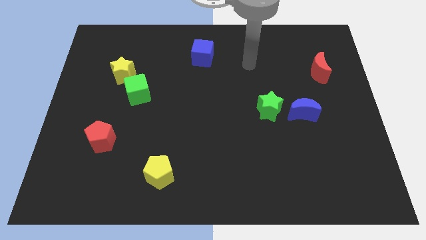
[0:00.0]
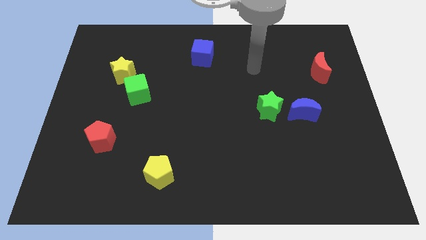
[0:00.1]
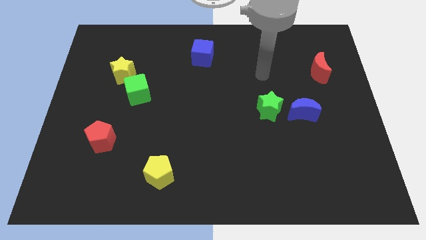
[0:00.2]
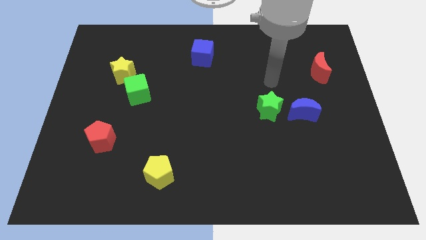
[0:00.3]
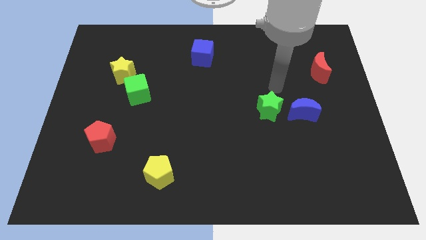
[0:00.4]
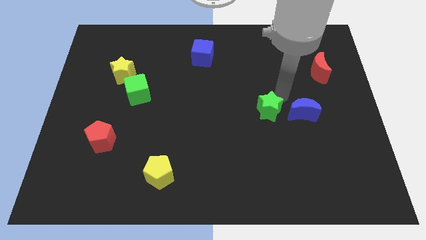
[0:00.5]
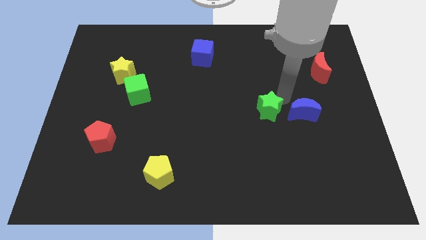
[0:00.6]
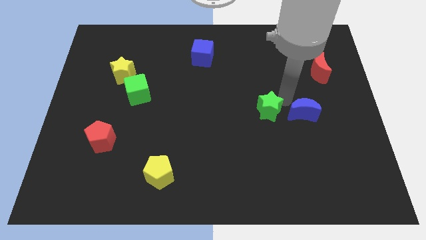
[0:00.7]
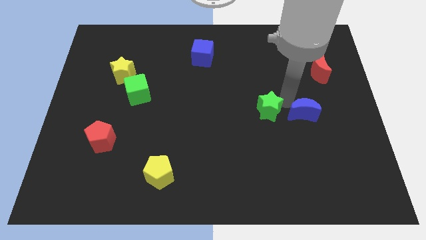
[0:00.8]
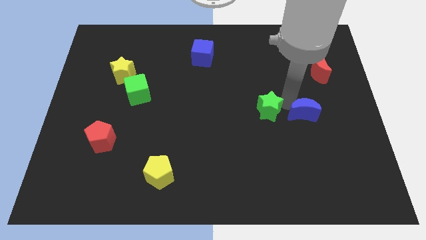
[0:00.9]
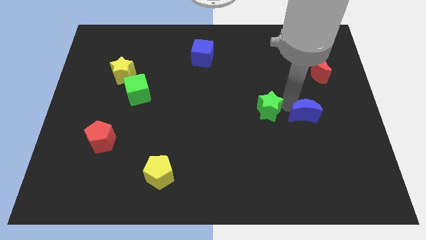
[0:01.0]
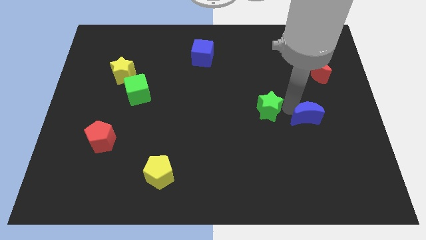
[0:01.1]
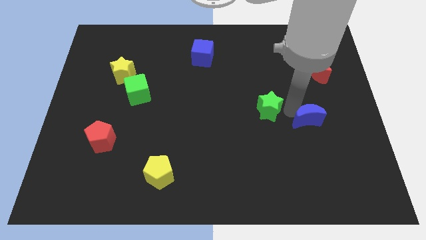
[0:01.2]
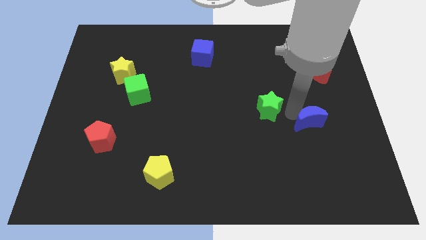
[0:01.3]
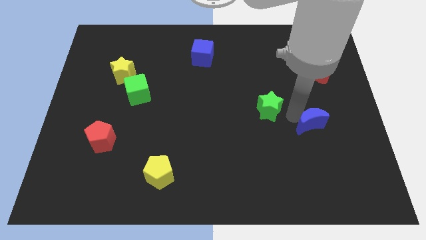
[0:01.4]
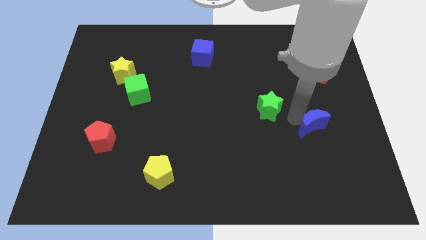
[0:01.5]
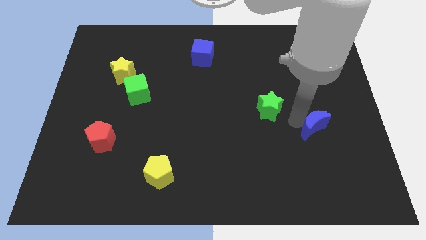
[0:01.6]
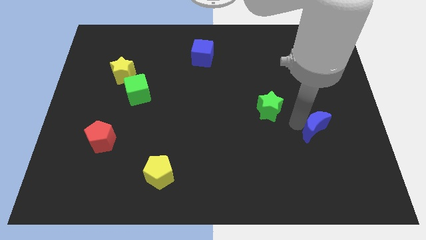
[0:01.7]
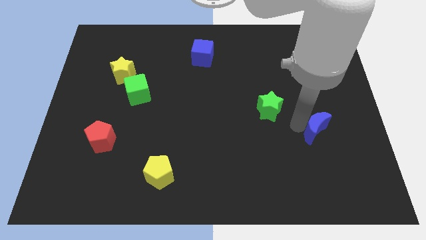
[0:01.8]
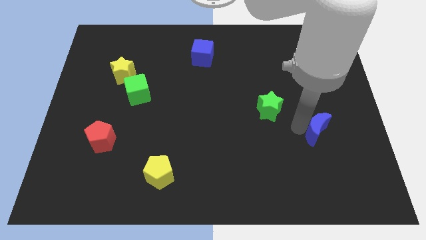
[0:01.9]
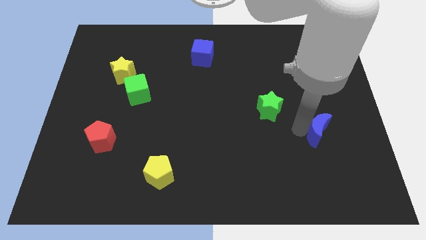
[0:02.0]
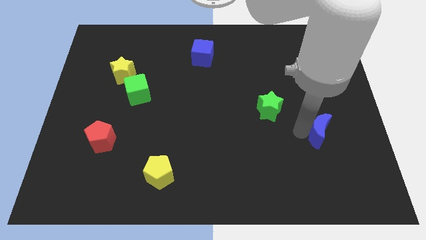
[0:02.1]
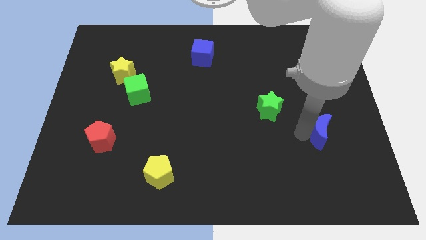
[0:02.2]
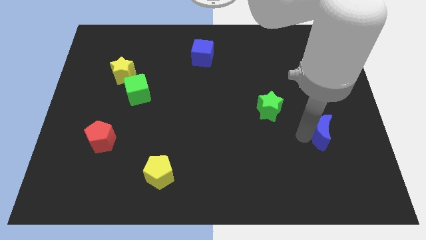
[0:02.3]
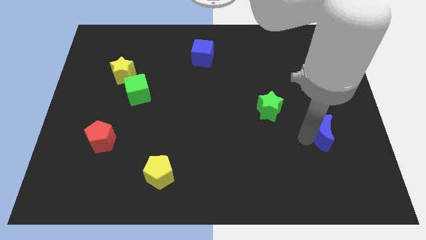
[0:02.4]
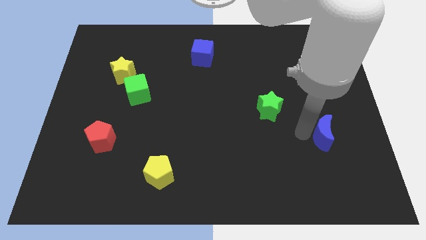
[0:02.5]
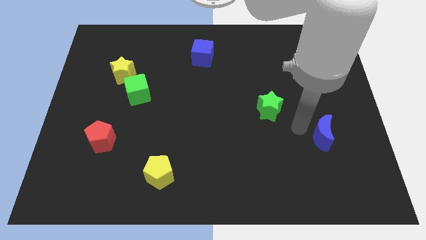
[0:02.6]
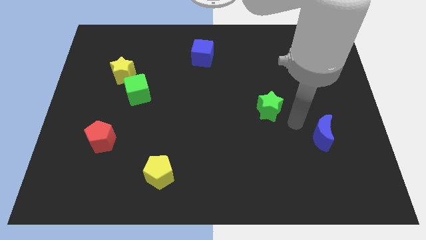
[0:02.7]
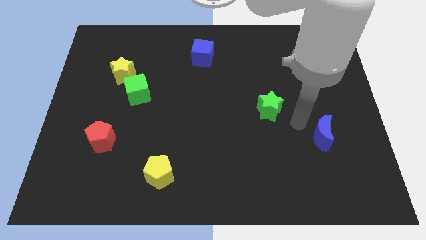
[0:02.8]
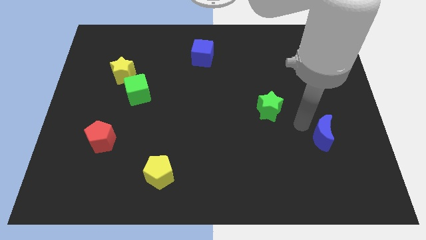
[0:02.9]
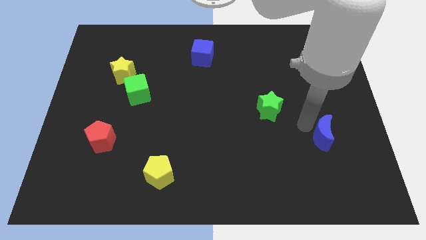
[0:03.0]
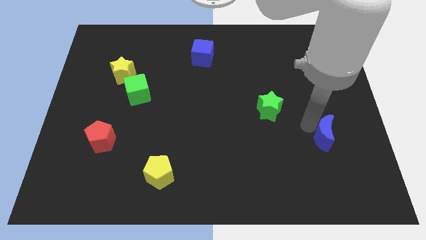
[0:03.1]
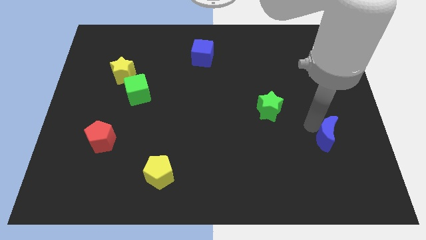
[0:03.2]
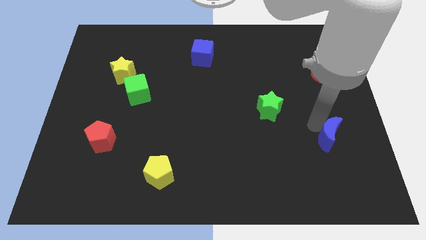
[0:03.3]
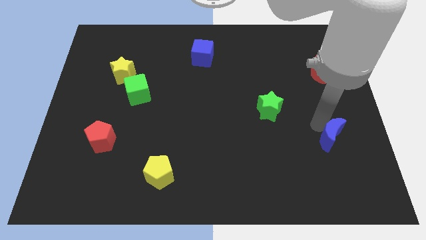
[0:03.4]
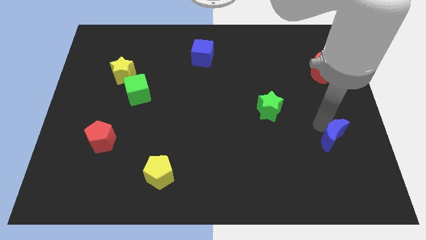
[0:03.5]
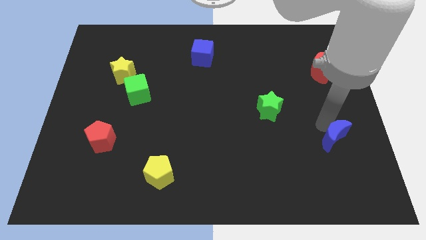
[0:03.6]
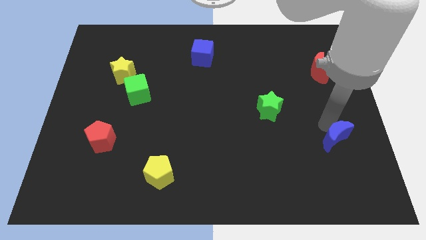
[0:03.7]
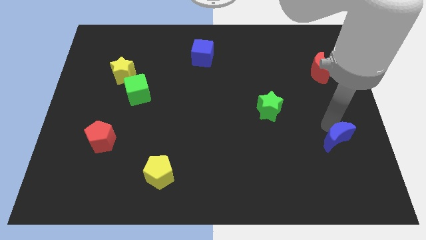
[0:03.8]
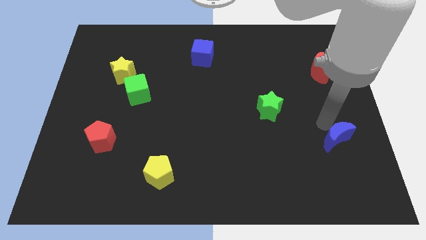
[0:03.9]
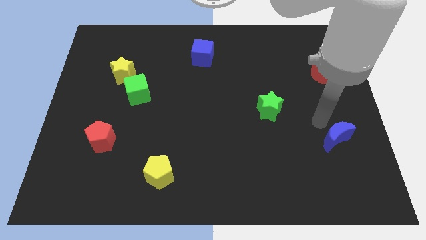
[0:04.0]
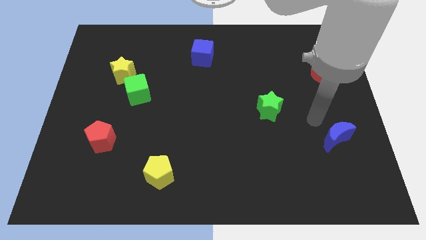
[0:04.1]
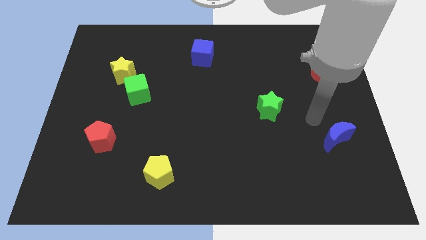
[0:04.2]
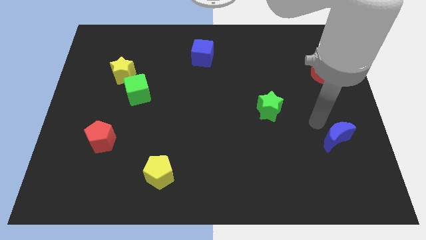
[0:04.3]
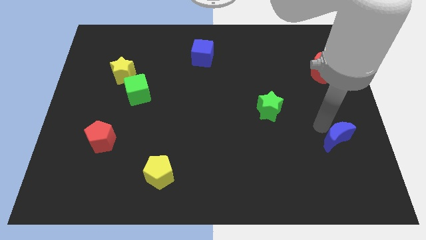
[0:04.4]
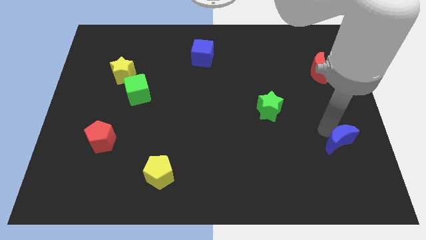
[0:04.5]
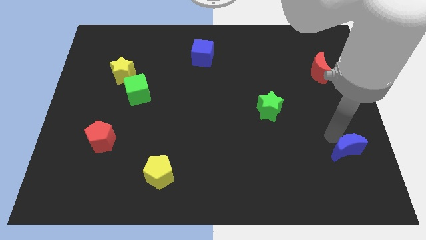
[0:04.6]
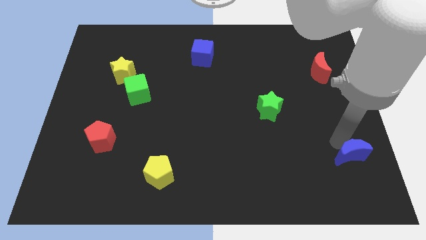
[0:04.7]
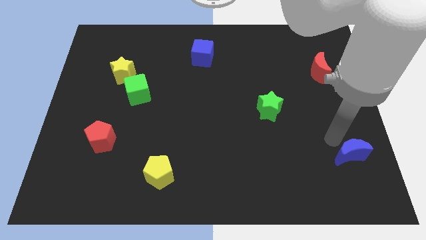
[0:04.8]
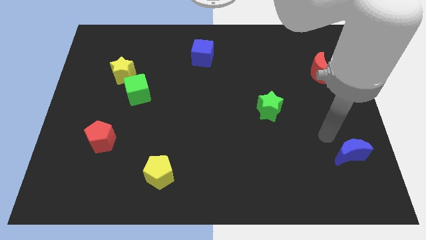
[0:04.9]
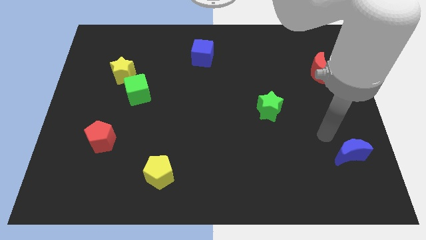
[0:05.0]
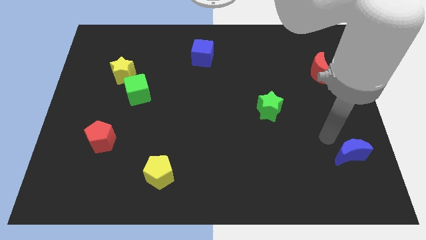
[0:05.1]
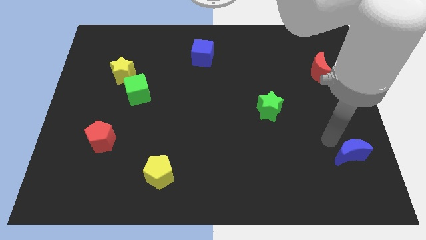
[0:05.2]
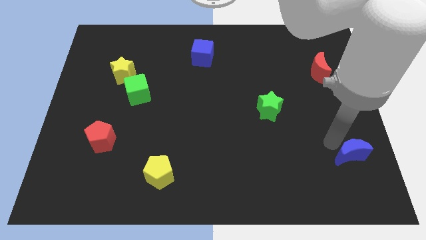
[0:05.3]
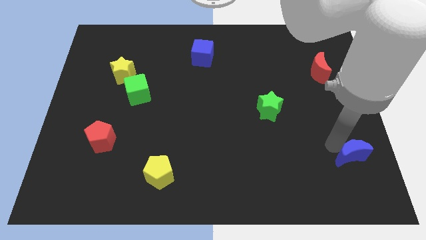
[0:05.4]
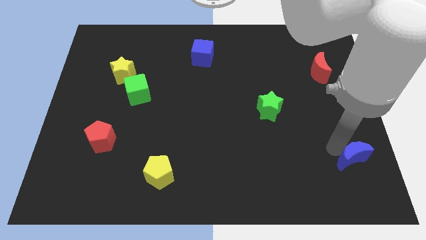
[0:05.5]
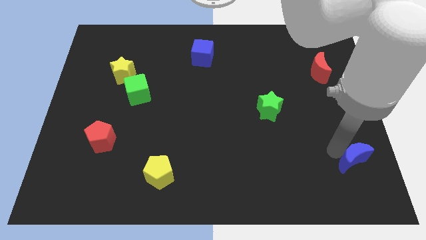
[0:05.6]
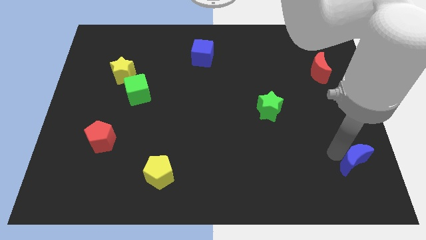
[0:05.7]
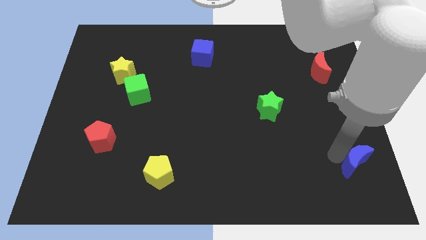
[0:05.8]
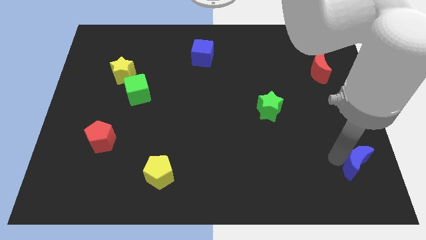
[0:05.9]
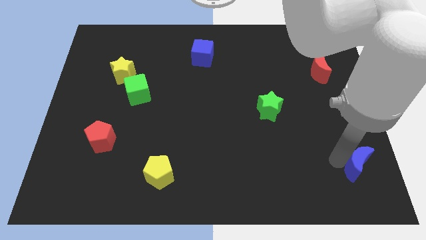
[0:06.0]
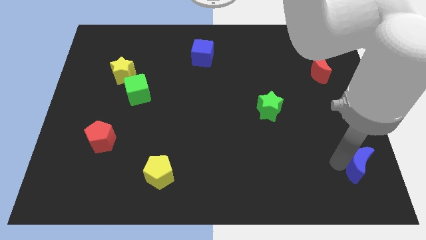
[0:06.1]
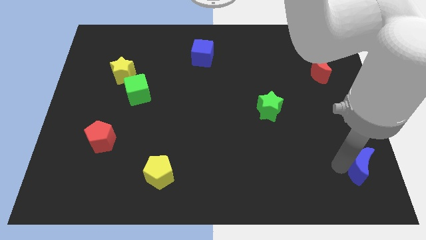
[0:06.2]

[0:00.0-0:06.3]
put the blue moon to the bottom right of the board
